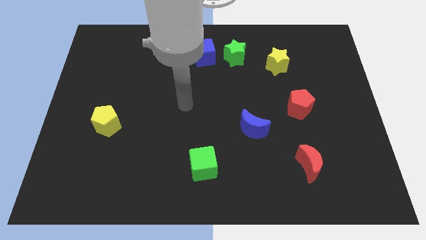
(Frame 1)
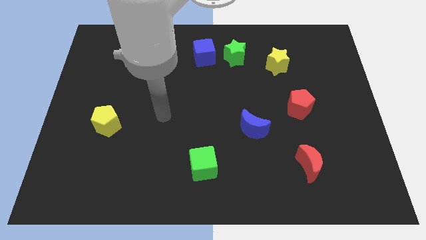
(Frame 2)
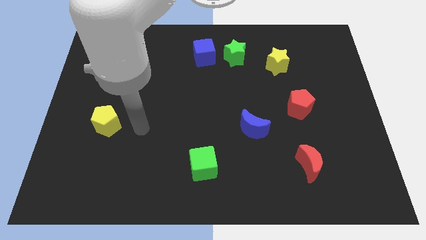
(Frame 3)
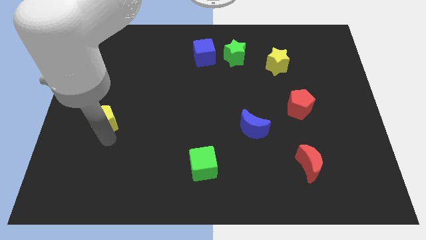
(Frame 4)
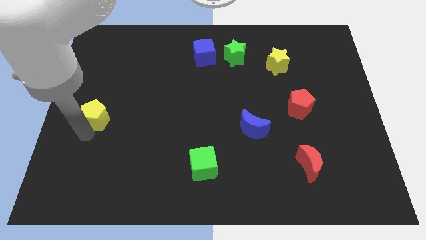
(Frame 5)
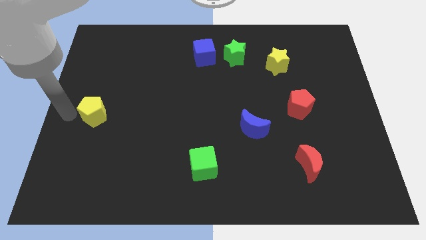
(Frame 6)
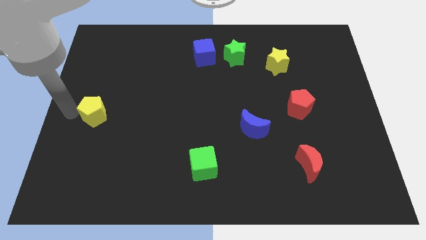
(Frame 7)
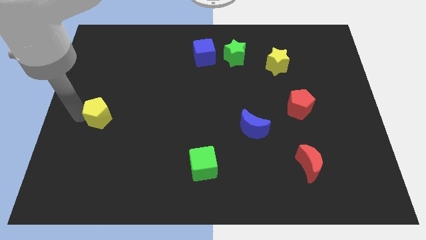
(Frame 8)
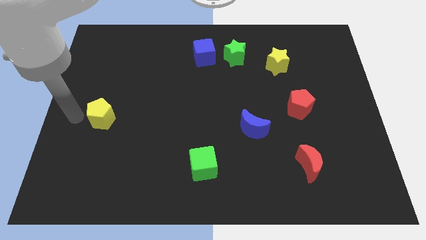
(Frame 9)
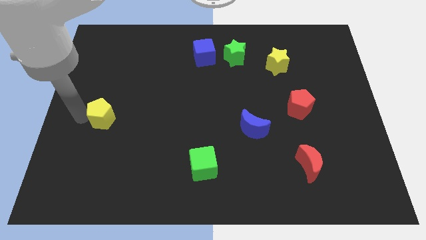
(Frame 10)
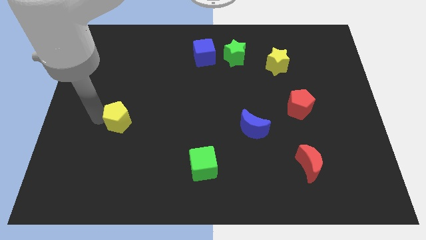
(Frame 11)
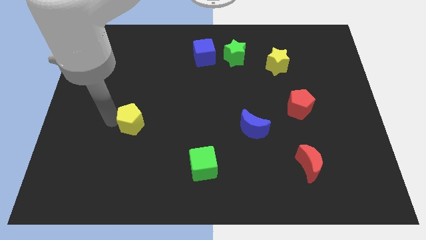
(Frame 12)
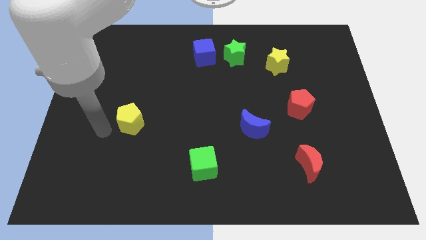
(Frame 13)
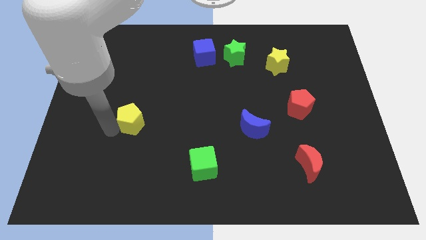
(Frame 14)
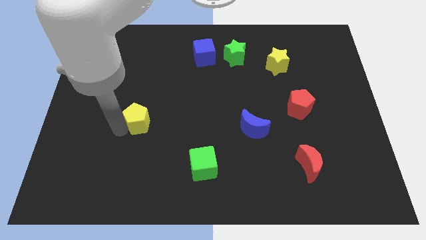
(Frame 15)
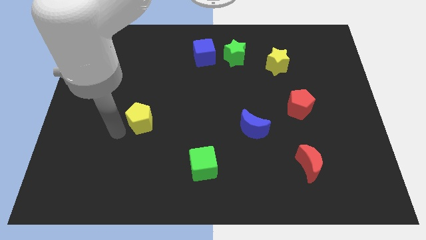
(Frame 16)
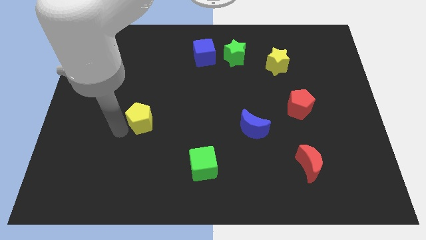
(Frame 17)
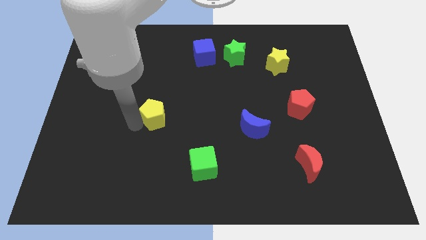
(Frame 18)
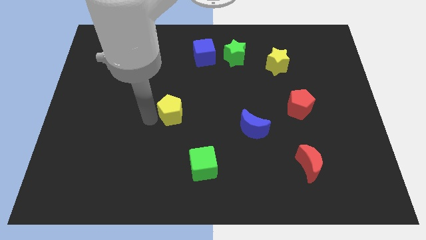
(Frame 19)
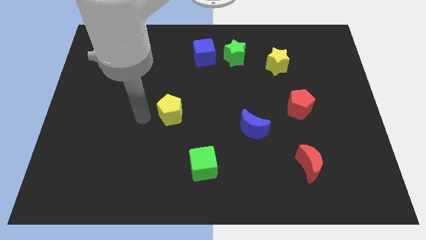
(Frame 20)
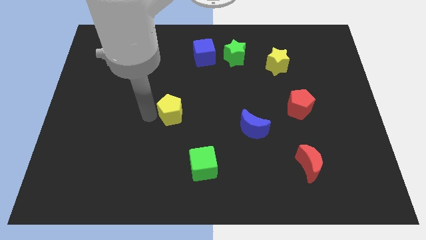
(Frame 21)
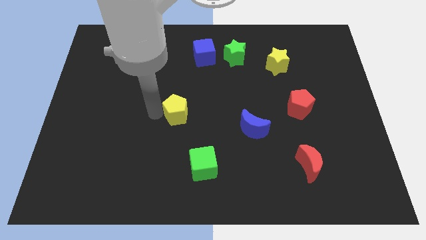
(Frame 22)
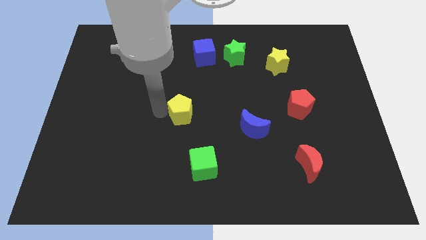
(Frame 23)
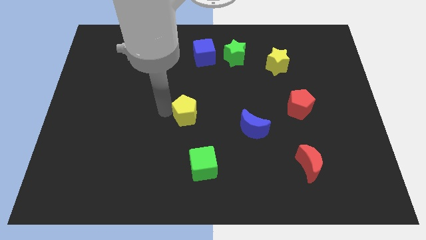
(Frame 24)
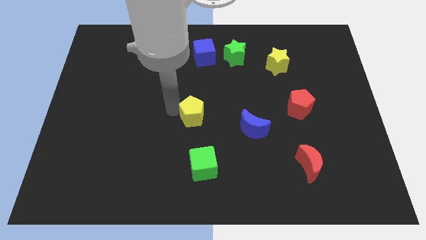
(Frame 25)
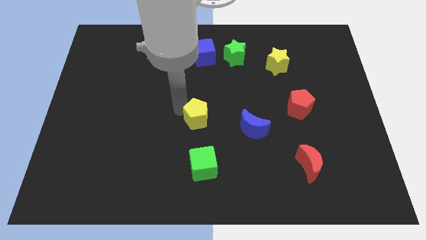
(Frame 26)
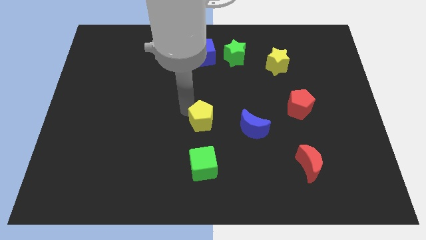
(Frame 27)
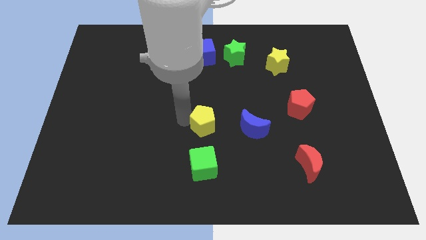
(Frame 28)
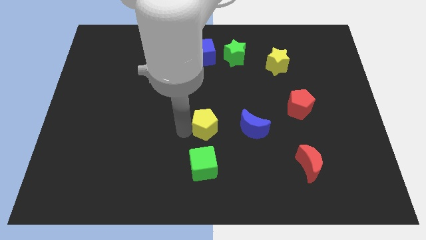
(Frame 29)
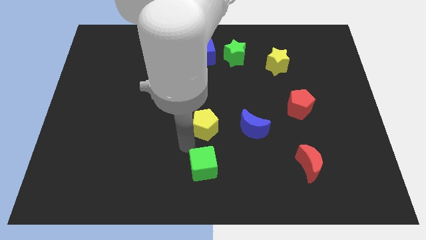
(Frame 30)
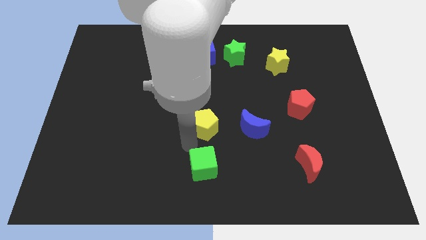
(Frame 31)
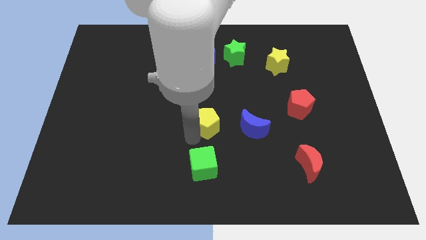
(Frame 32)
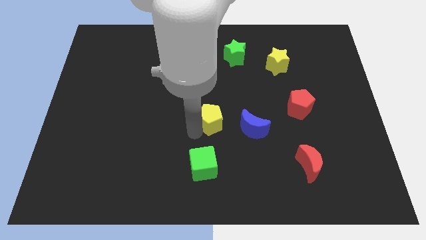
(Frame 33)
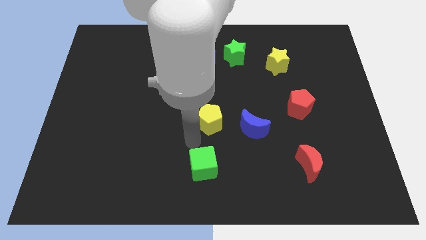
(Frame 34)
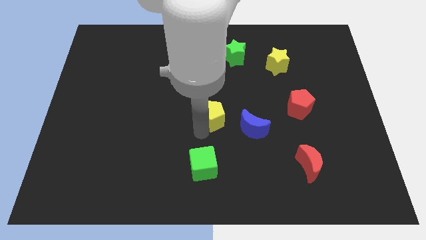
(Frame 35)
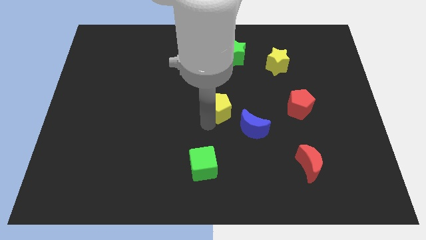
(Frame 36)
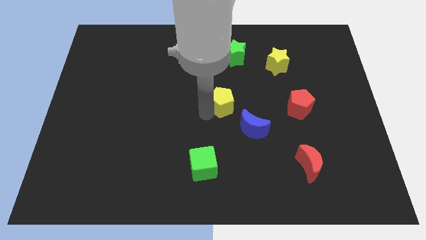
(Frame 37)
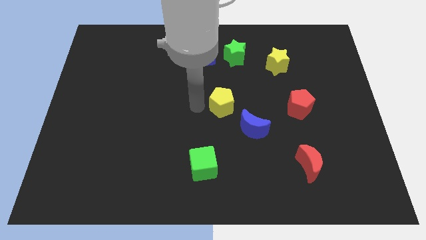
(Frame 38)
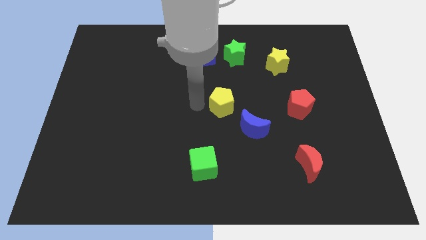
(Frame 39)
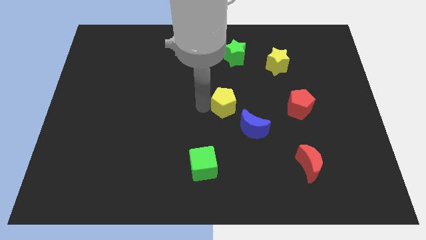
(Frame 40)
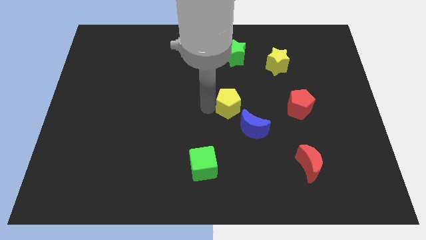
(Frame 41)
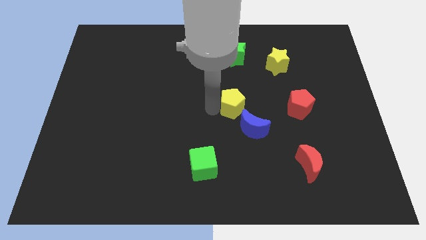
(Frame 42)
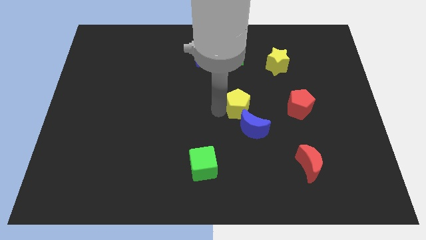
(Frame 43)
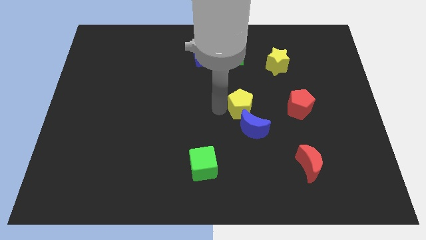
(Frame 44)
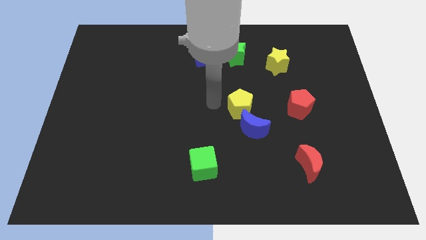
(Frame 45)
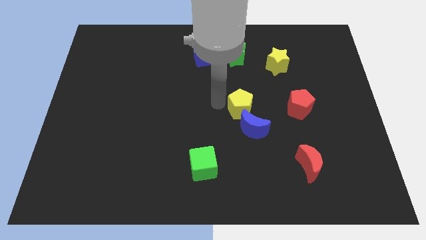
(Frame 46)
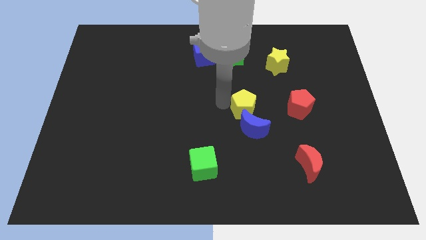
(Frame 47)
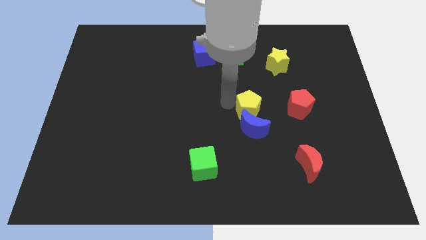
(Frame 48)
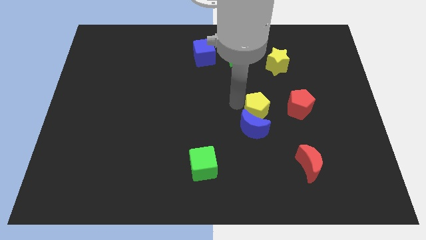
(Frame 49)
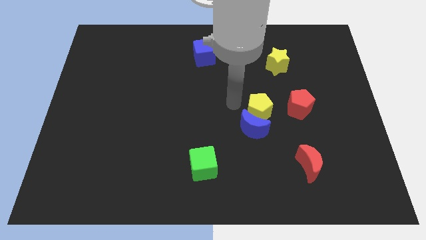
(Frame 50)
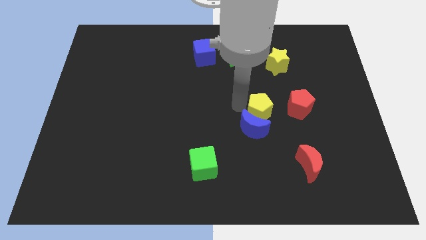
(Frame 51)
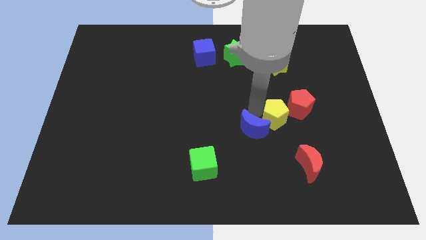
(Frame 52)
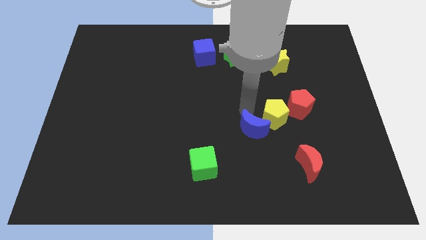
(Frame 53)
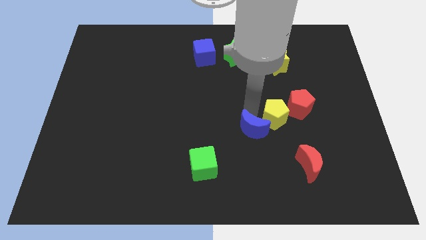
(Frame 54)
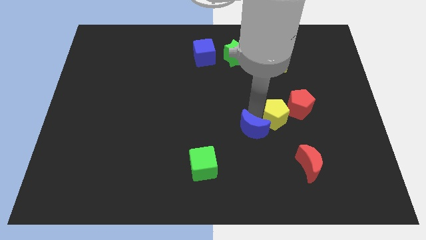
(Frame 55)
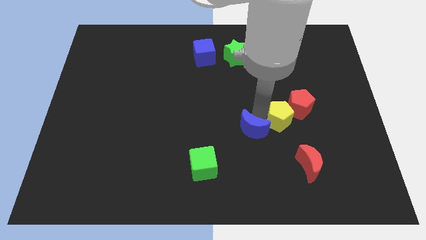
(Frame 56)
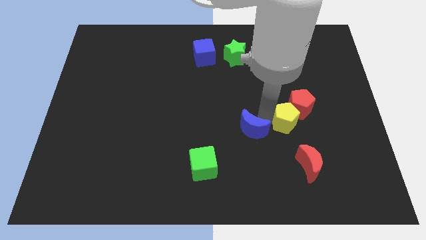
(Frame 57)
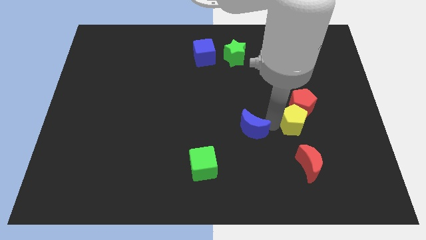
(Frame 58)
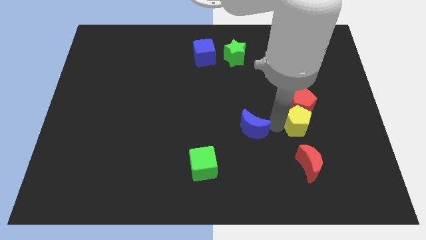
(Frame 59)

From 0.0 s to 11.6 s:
move the yellow pentagon diagonally down and to the right of the red pentagon

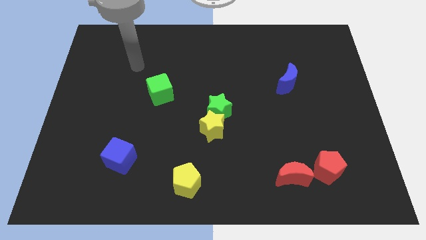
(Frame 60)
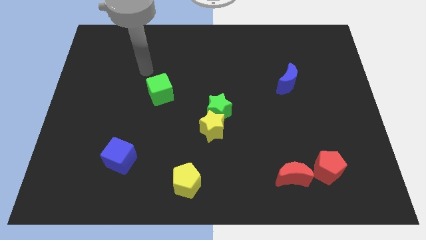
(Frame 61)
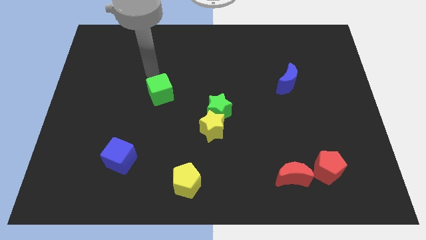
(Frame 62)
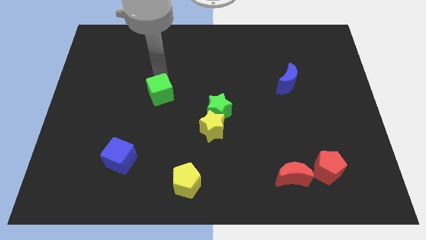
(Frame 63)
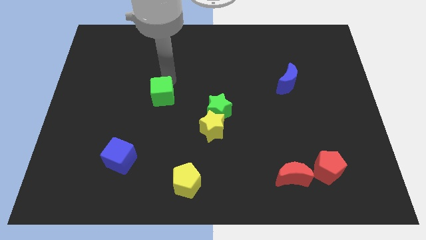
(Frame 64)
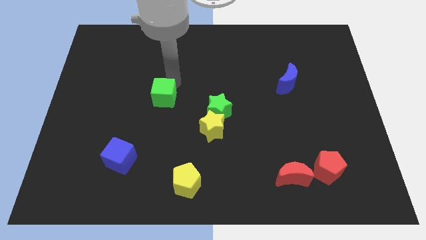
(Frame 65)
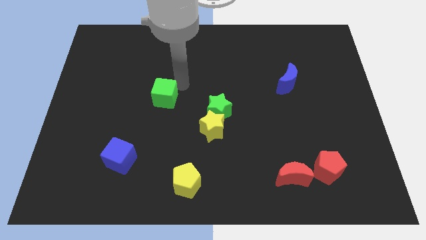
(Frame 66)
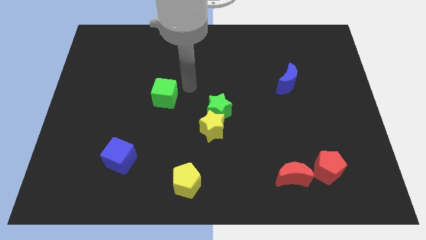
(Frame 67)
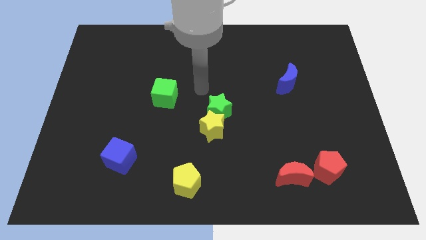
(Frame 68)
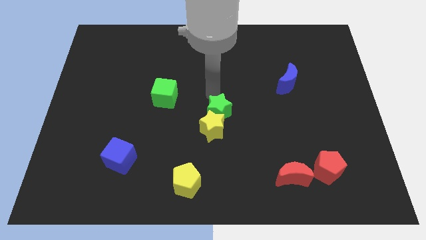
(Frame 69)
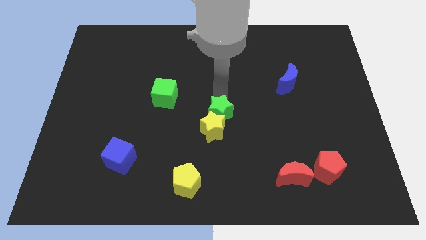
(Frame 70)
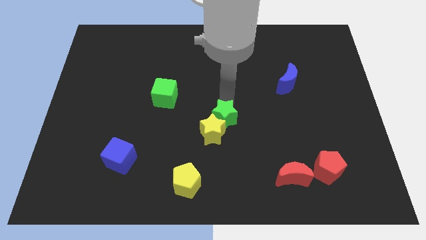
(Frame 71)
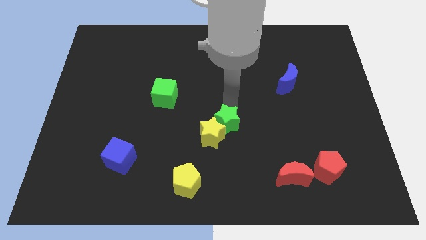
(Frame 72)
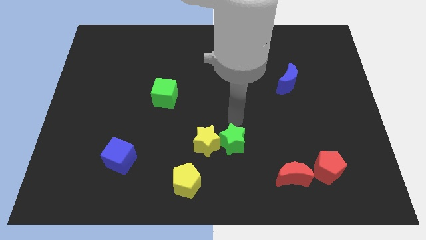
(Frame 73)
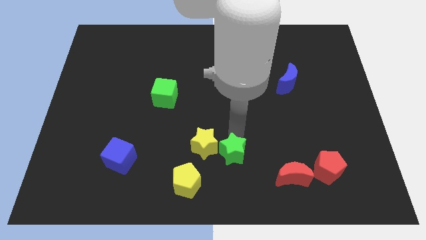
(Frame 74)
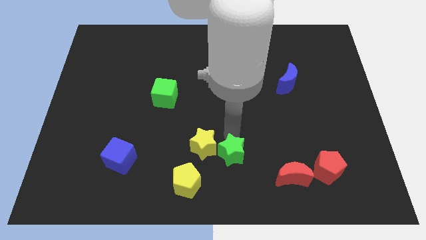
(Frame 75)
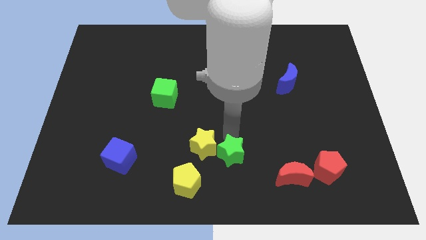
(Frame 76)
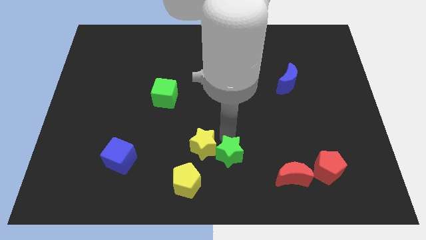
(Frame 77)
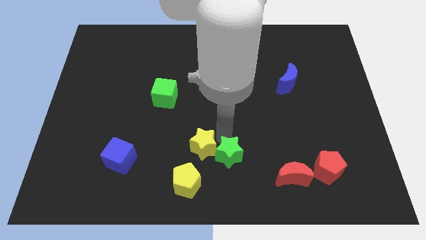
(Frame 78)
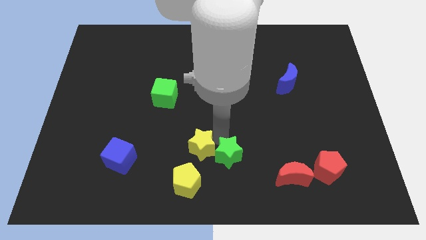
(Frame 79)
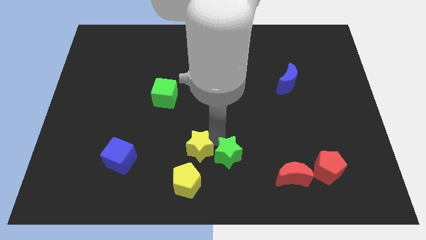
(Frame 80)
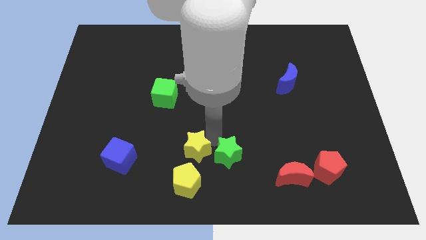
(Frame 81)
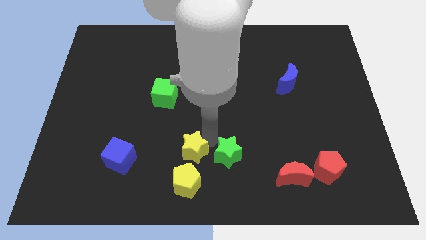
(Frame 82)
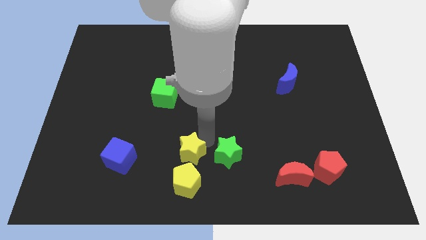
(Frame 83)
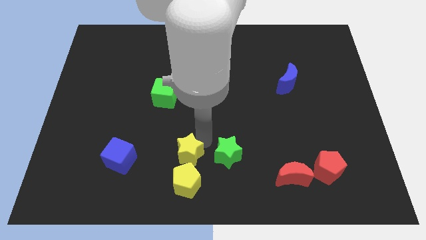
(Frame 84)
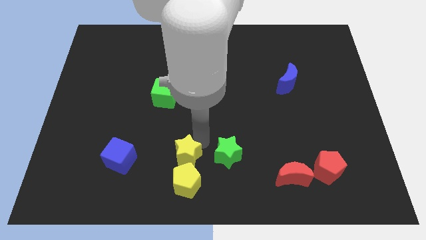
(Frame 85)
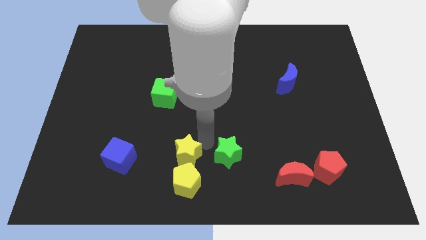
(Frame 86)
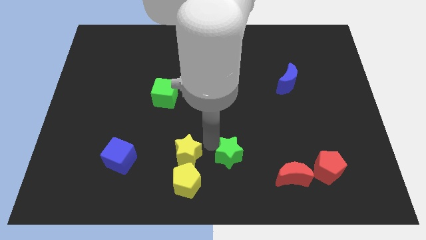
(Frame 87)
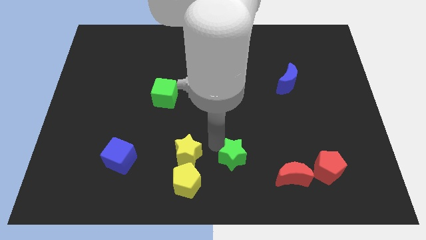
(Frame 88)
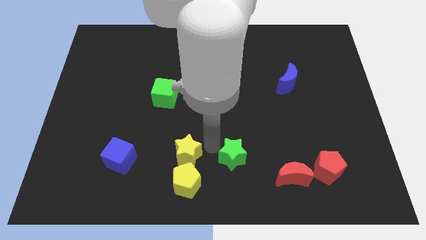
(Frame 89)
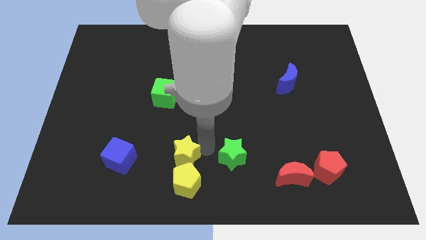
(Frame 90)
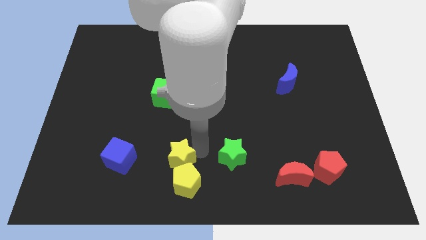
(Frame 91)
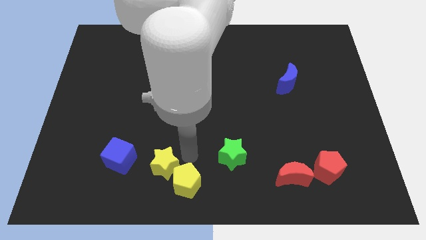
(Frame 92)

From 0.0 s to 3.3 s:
put the yellow star left of the yellow pentagon
